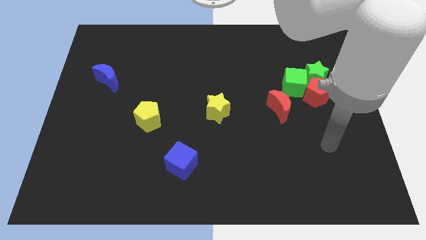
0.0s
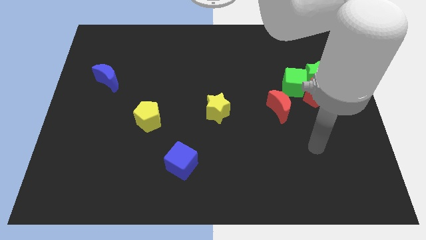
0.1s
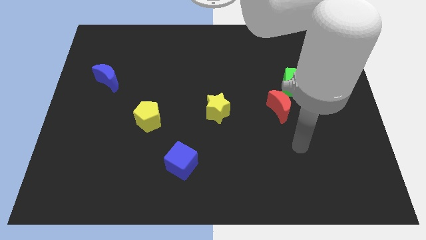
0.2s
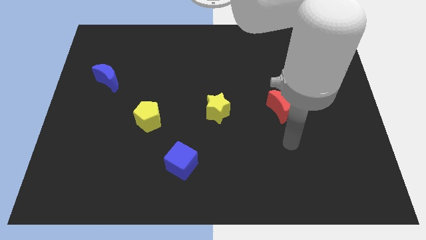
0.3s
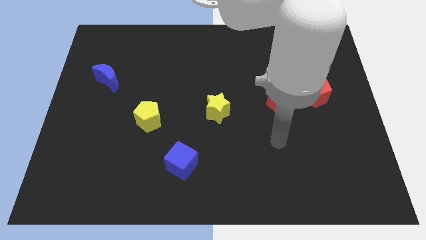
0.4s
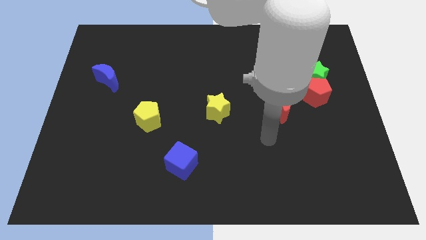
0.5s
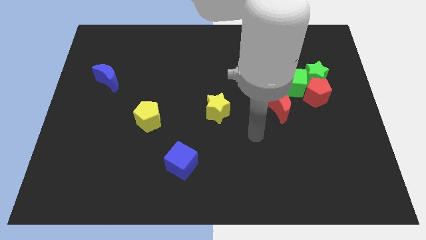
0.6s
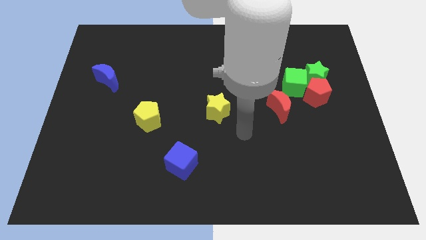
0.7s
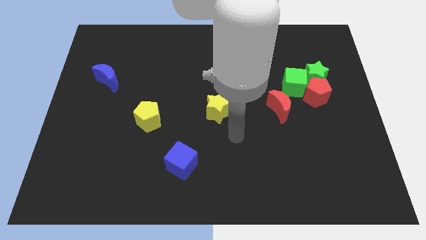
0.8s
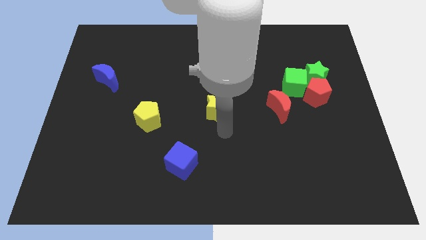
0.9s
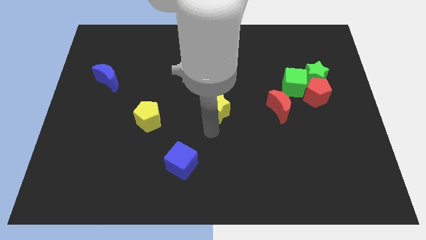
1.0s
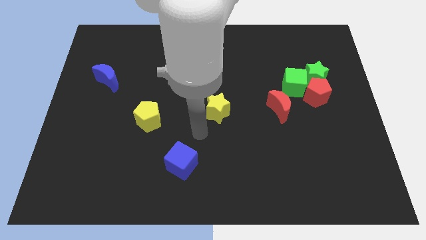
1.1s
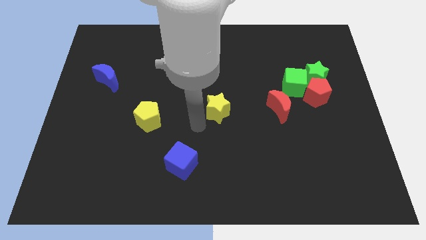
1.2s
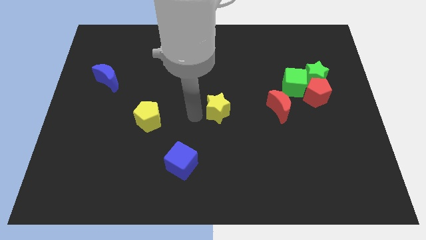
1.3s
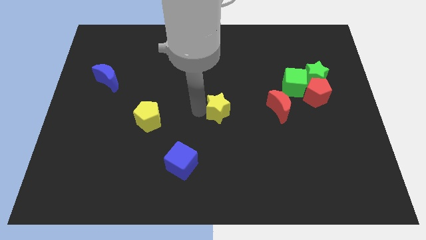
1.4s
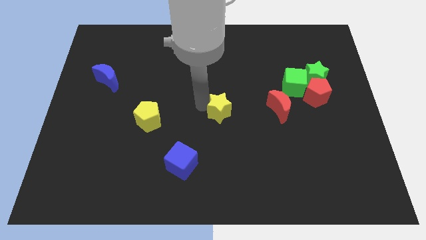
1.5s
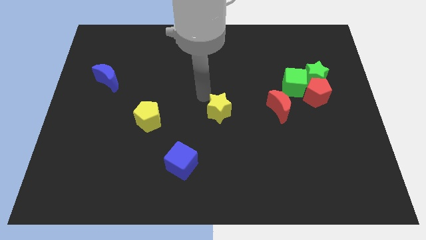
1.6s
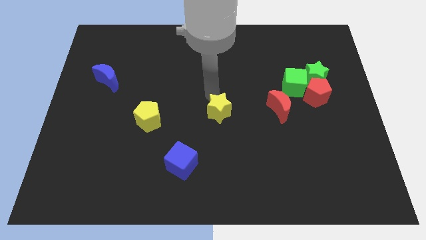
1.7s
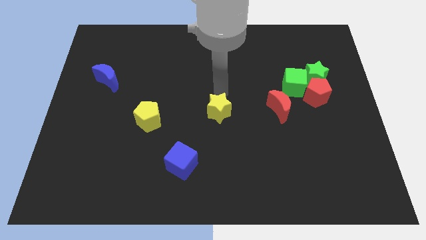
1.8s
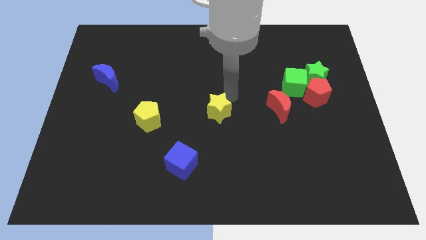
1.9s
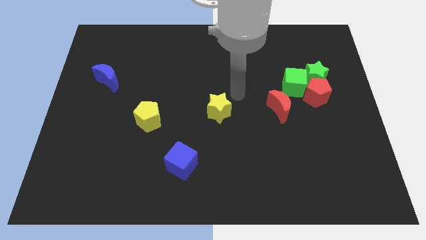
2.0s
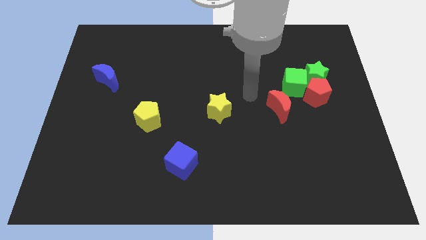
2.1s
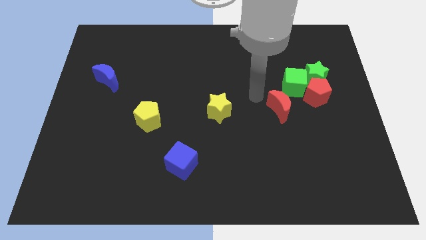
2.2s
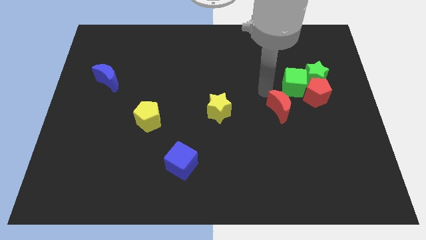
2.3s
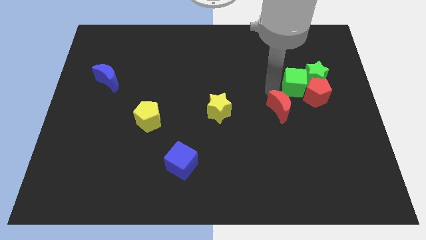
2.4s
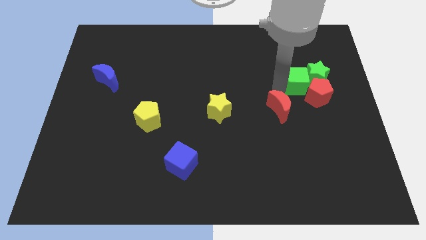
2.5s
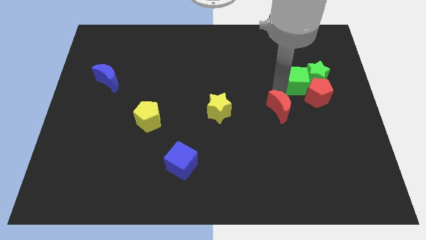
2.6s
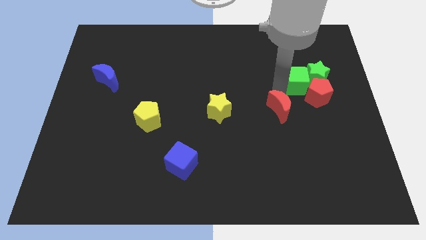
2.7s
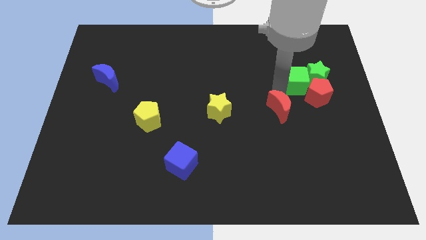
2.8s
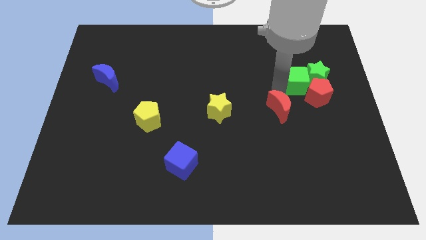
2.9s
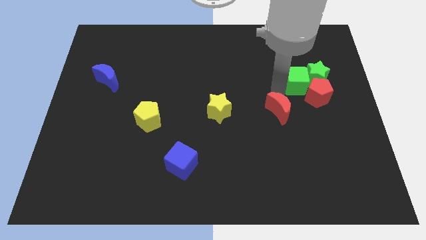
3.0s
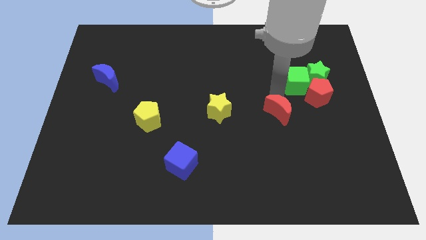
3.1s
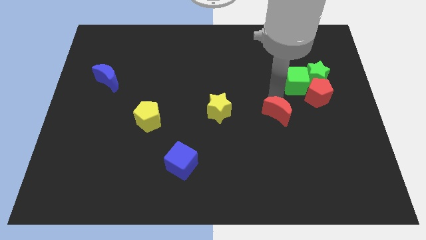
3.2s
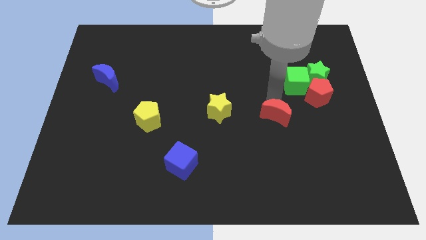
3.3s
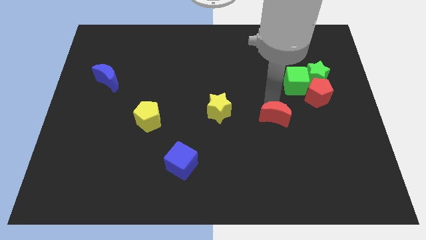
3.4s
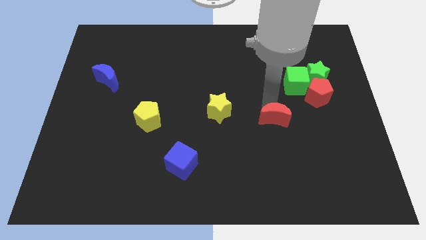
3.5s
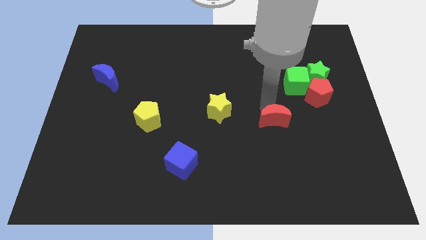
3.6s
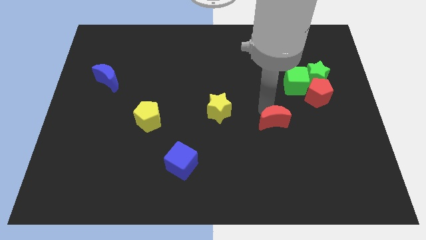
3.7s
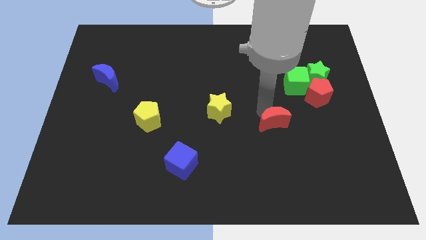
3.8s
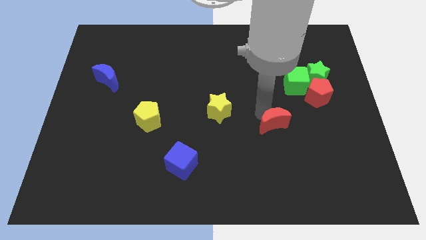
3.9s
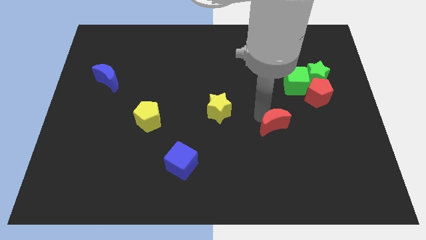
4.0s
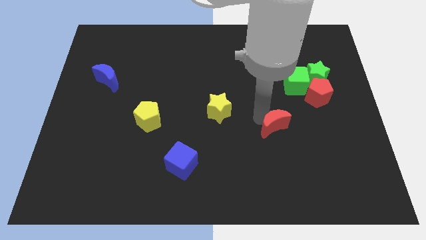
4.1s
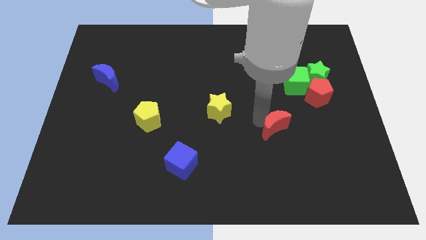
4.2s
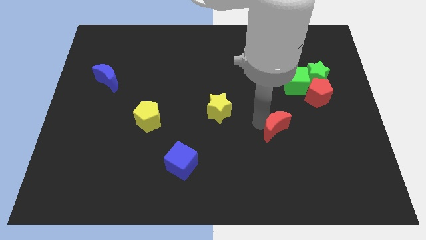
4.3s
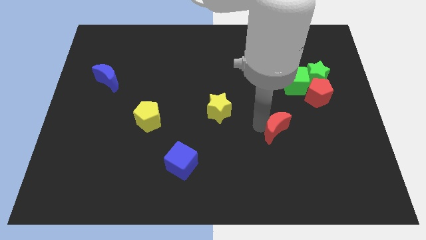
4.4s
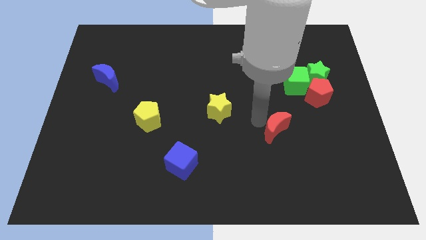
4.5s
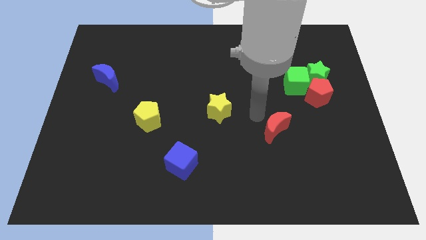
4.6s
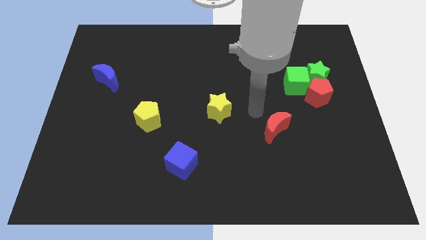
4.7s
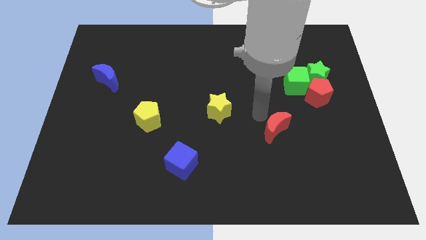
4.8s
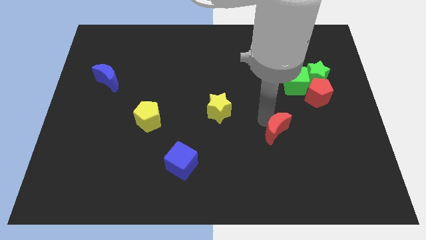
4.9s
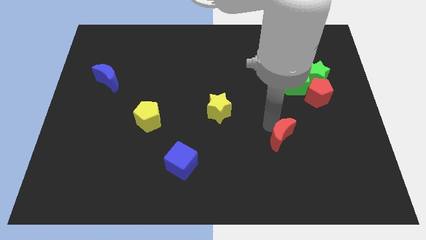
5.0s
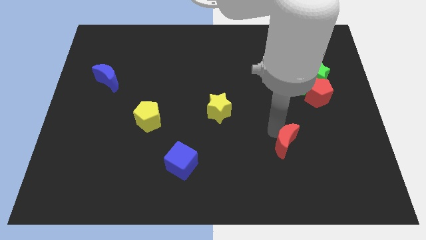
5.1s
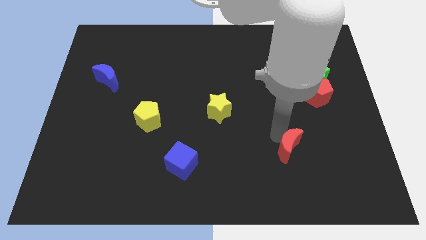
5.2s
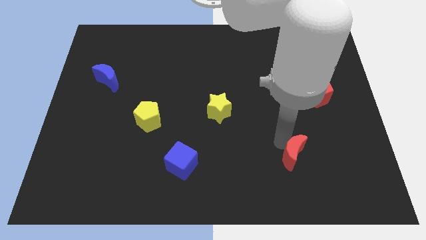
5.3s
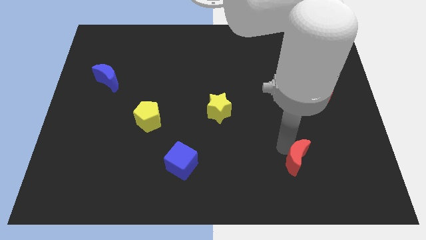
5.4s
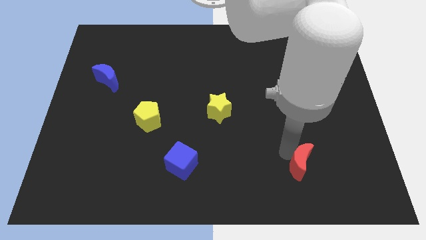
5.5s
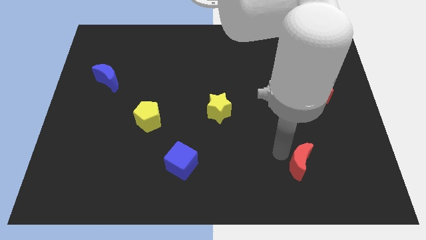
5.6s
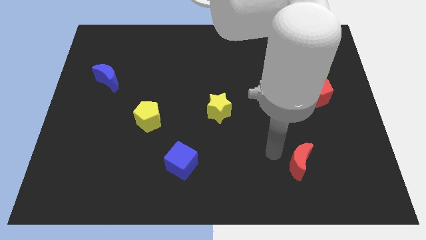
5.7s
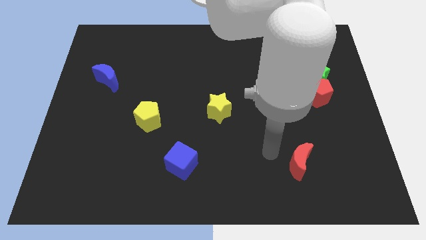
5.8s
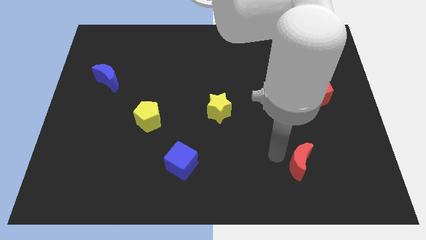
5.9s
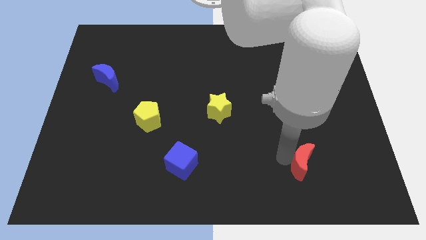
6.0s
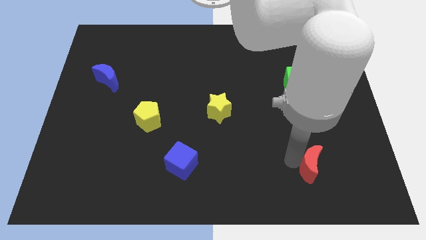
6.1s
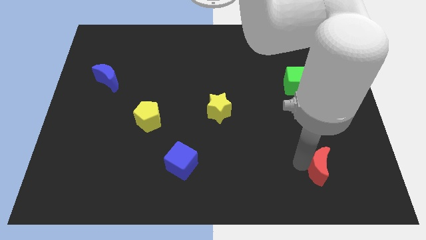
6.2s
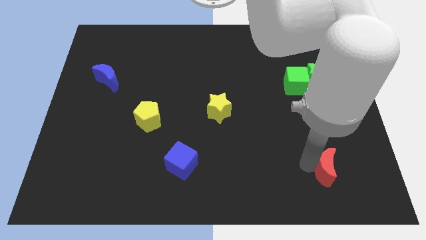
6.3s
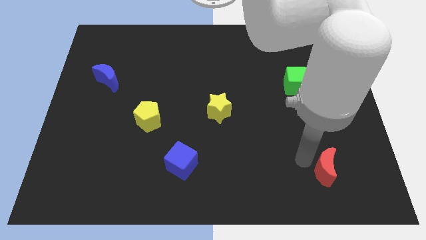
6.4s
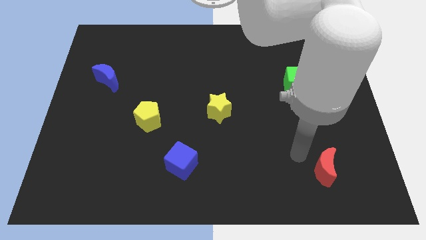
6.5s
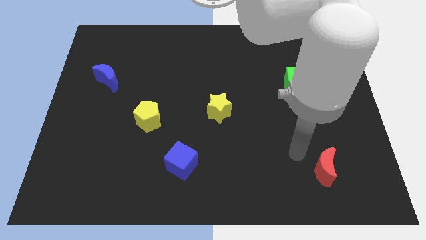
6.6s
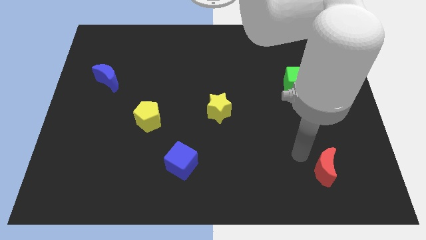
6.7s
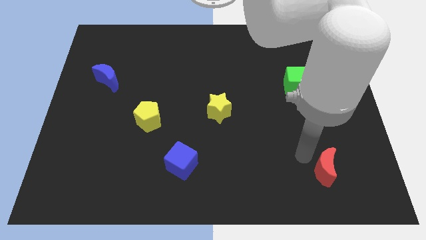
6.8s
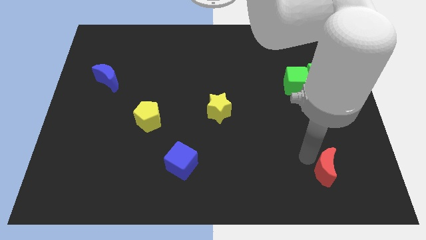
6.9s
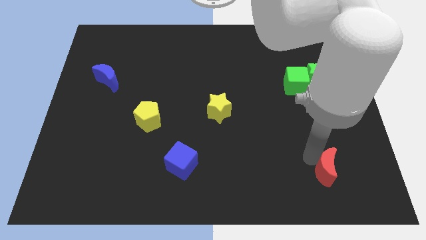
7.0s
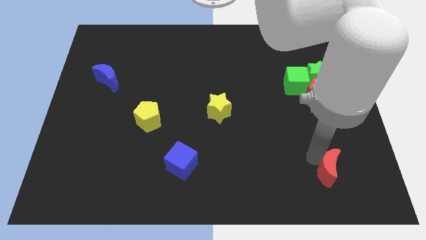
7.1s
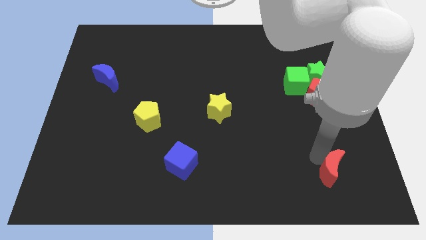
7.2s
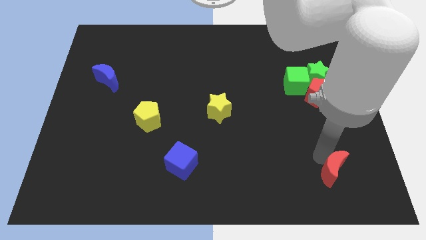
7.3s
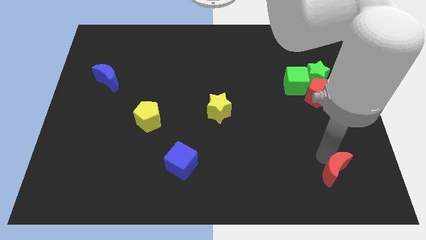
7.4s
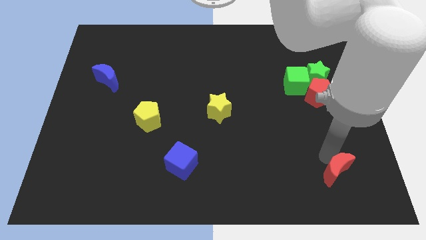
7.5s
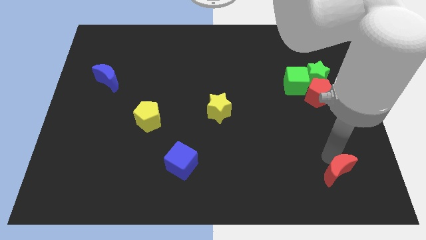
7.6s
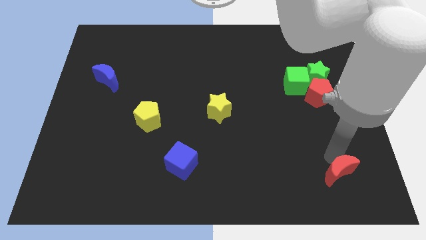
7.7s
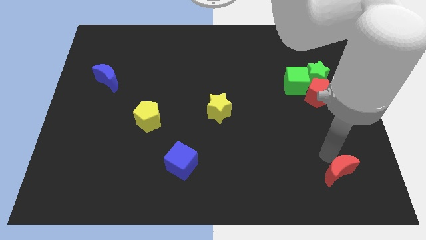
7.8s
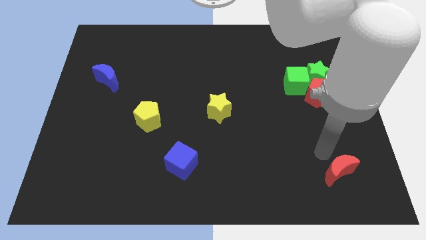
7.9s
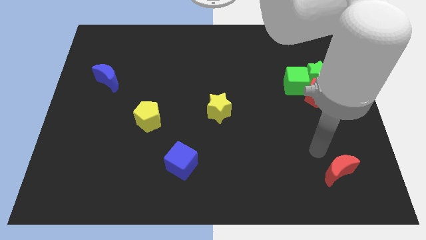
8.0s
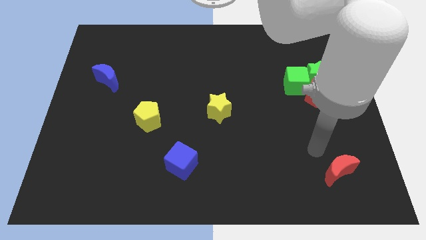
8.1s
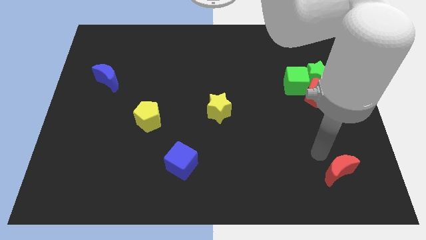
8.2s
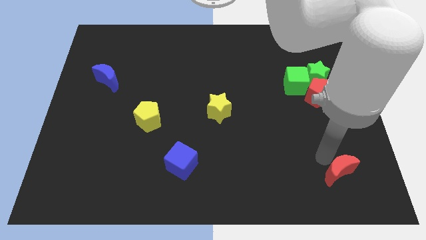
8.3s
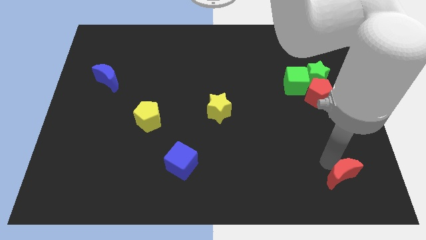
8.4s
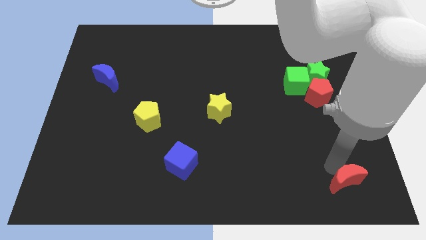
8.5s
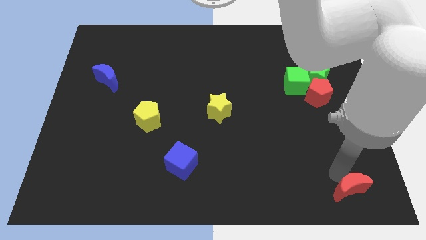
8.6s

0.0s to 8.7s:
slide the red moon to the bottom right of the board
